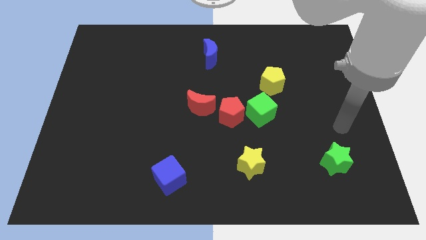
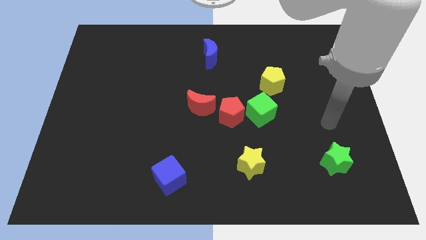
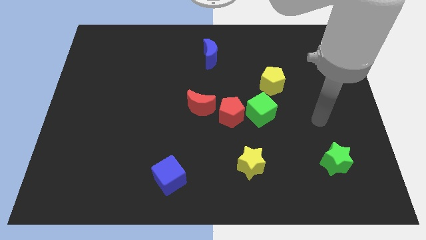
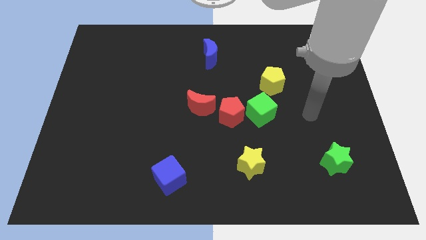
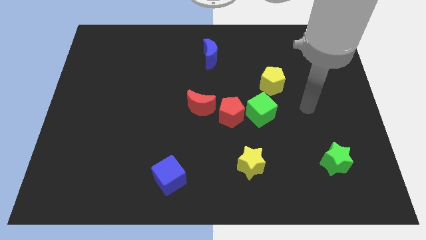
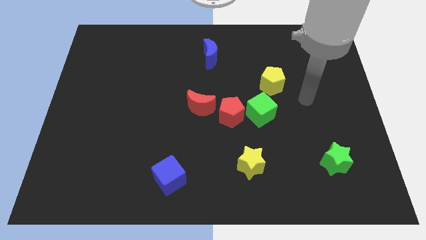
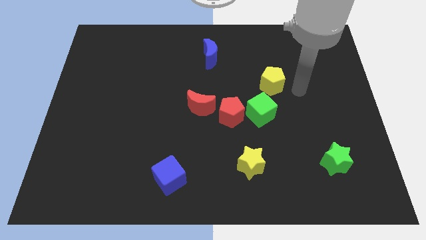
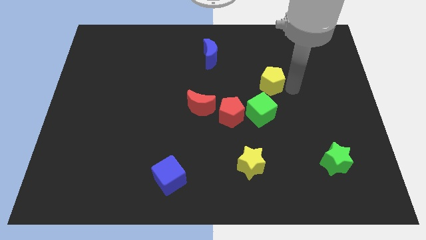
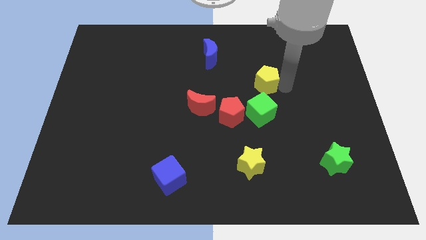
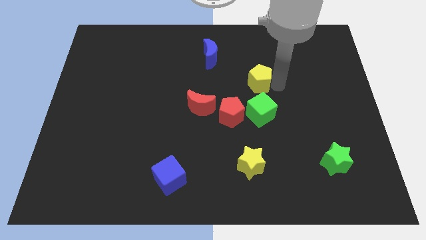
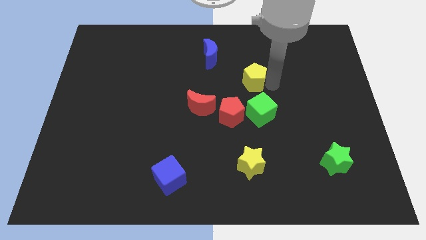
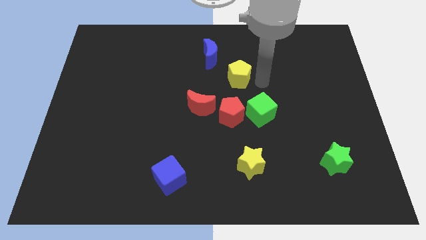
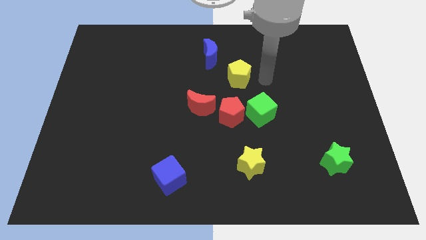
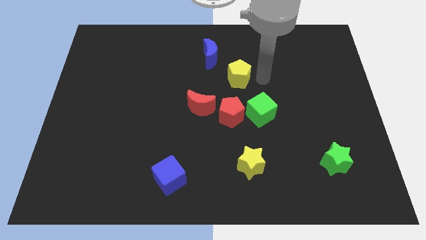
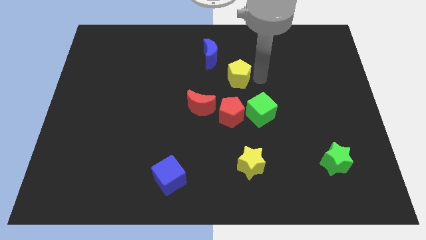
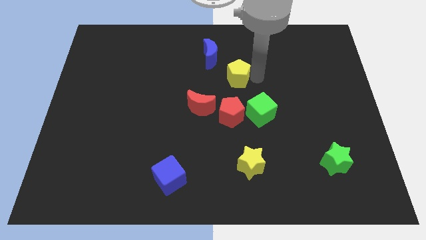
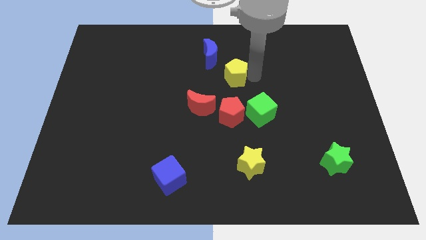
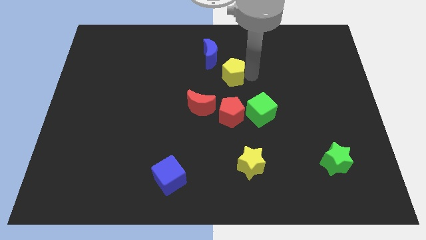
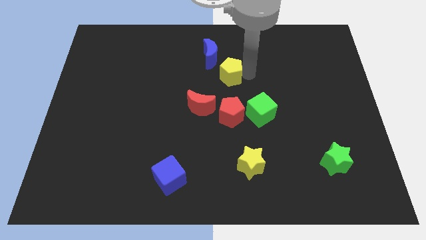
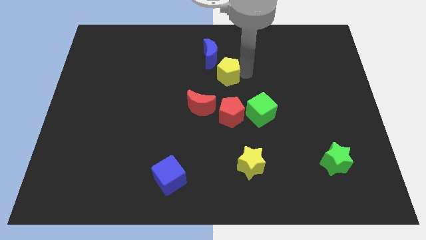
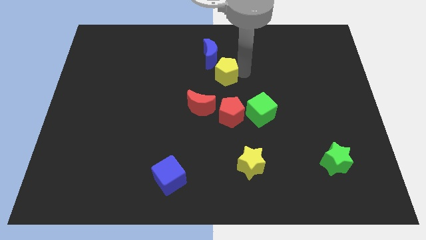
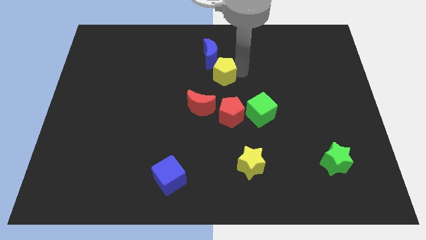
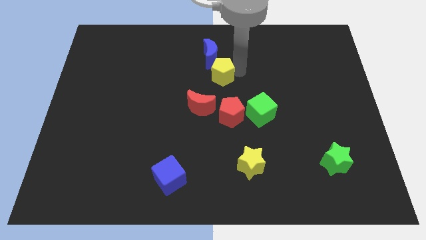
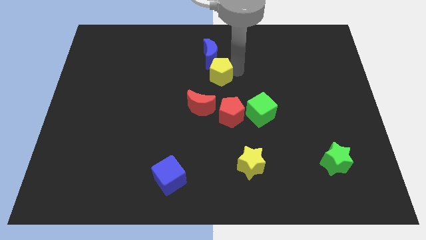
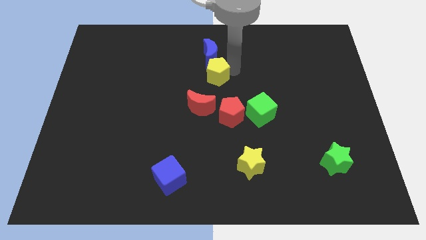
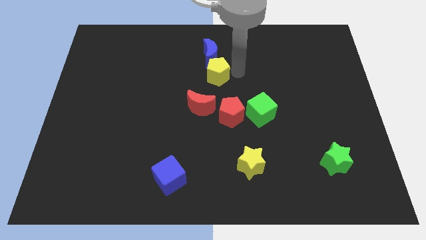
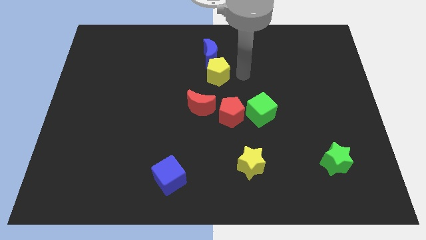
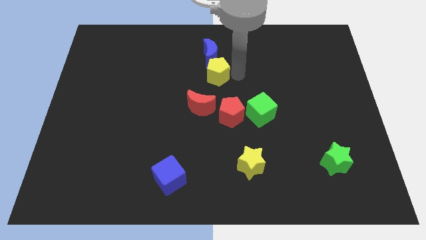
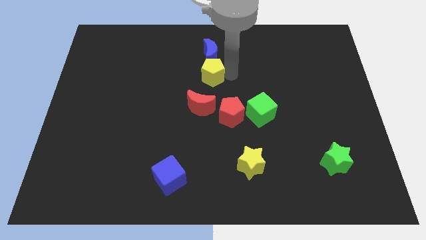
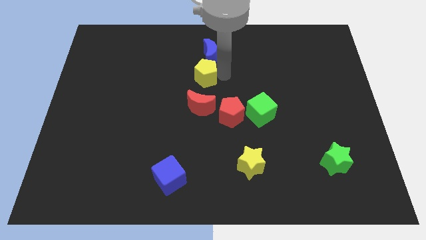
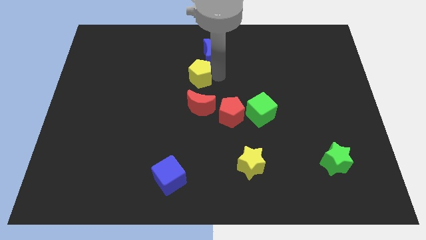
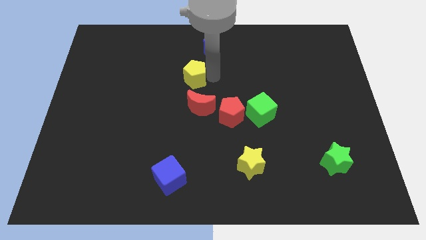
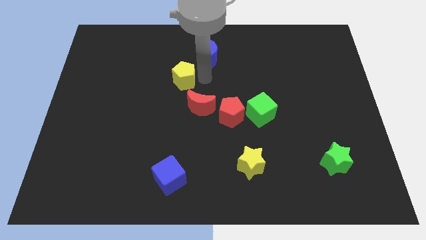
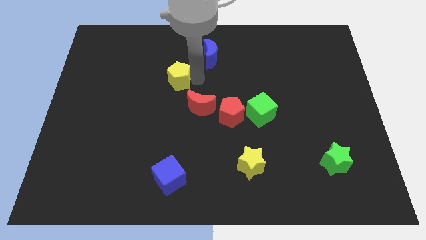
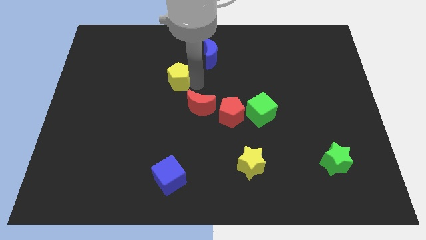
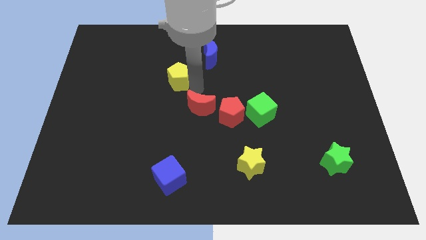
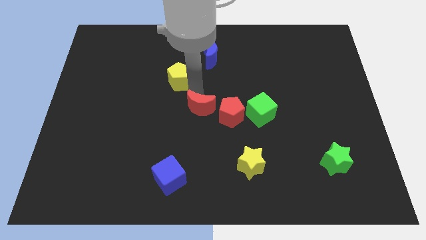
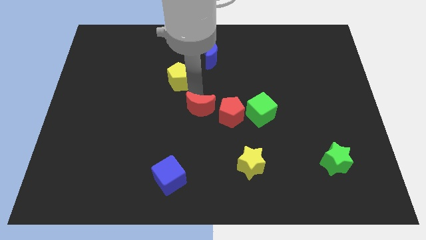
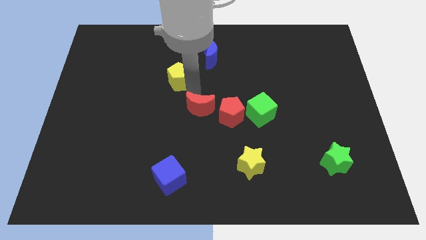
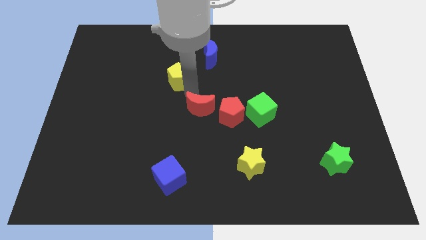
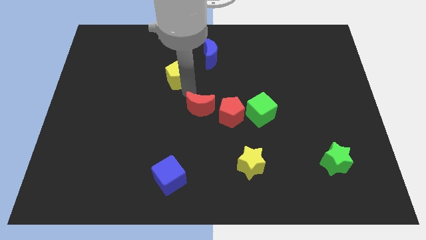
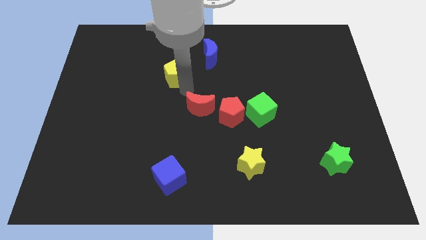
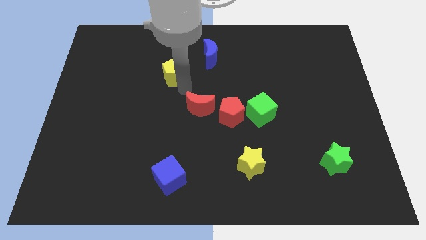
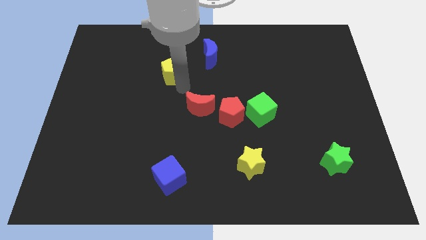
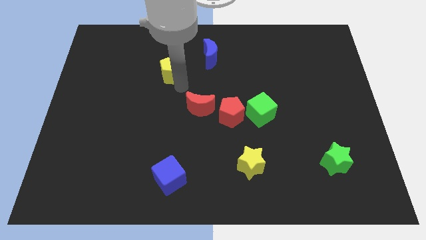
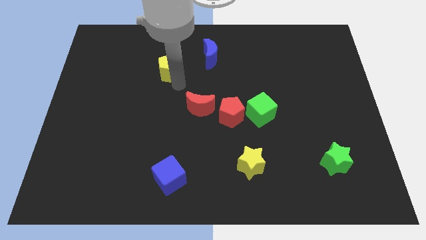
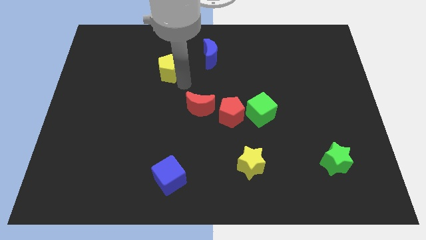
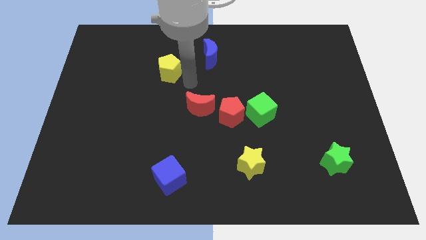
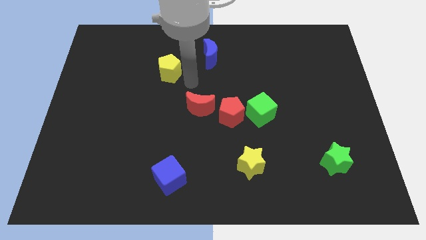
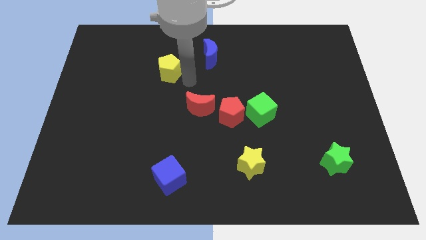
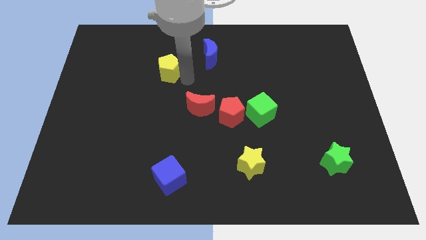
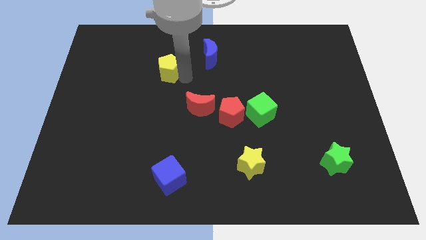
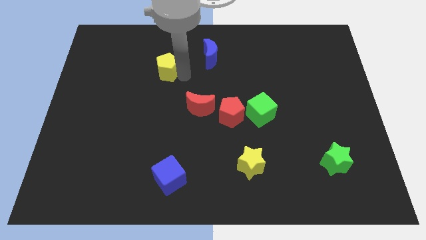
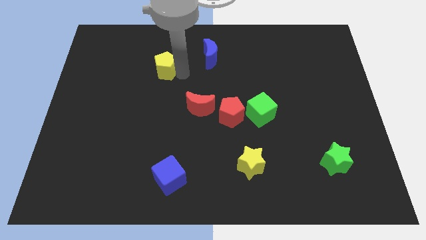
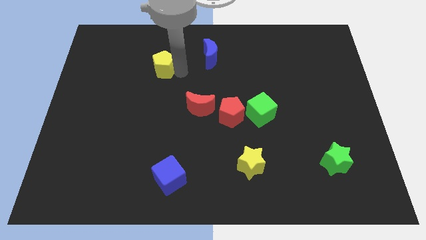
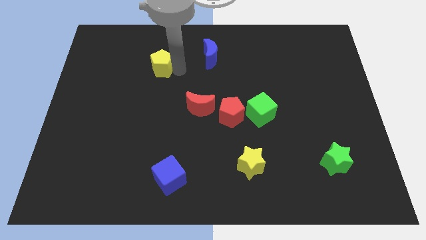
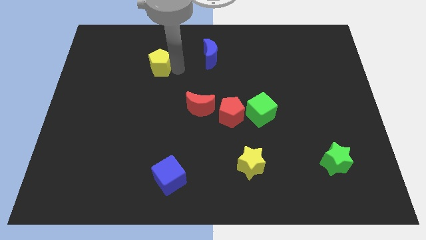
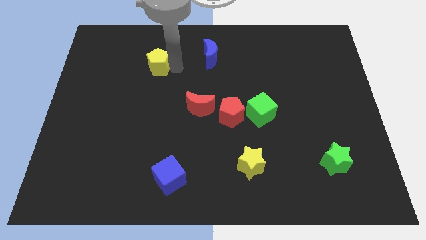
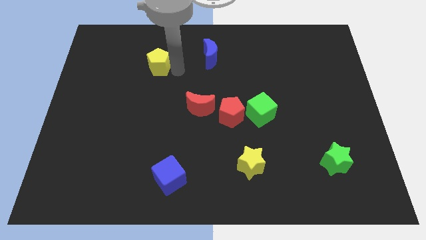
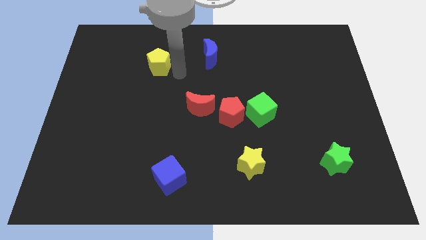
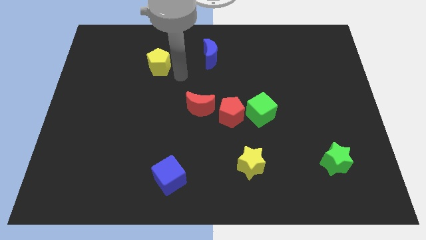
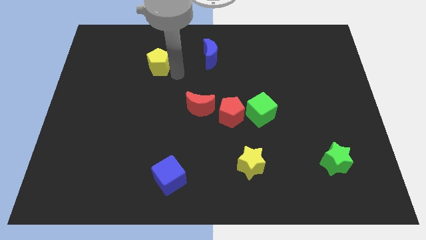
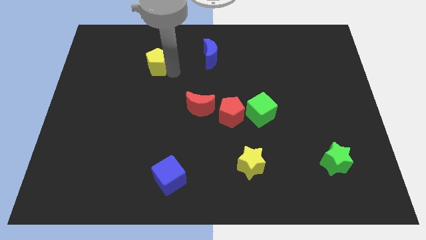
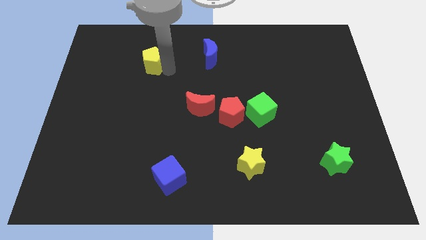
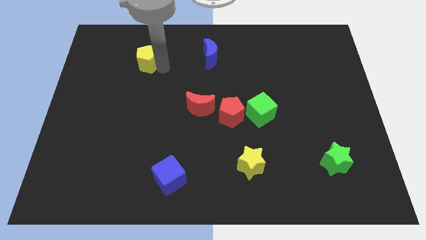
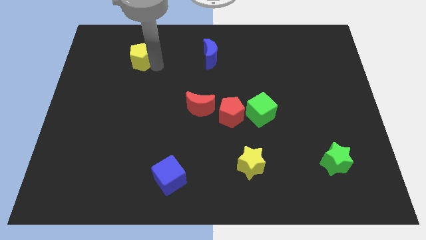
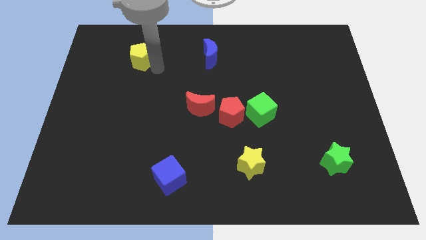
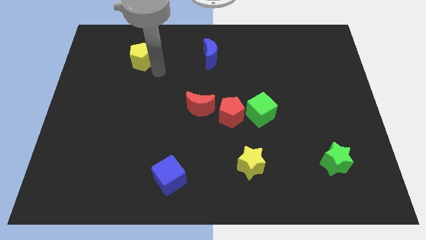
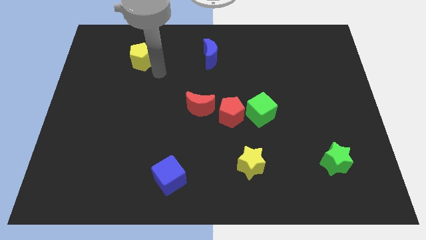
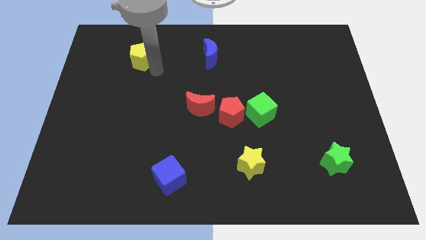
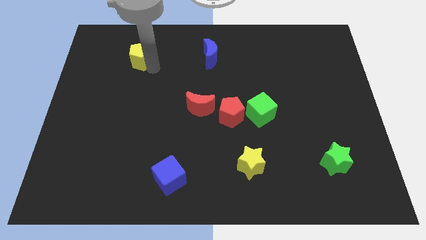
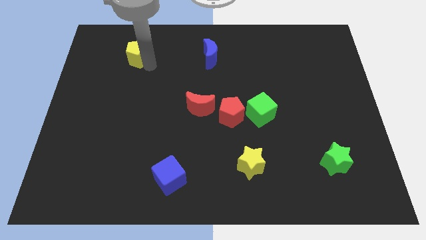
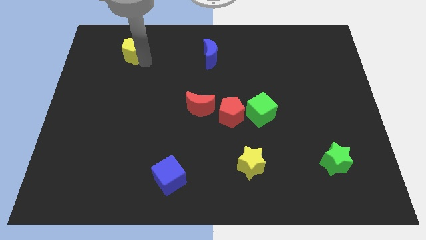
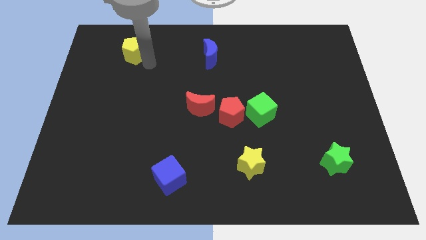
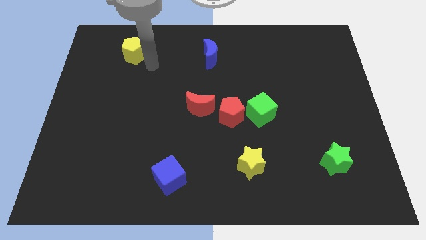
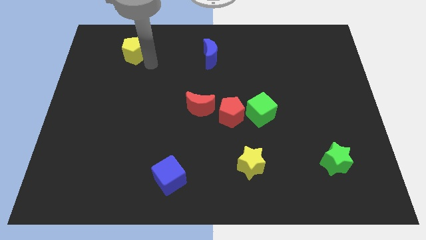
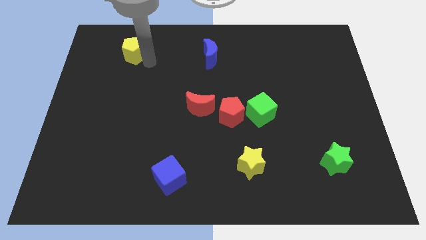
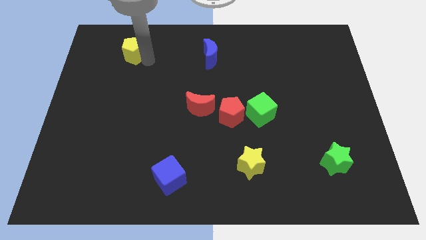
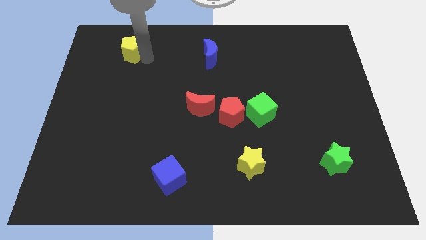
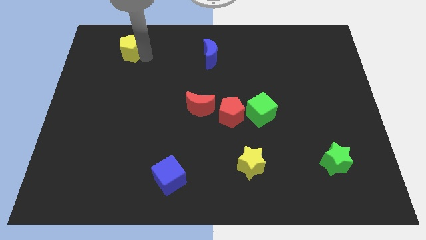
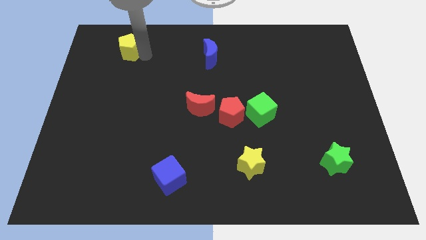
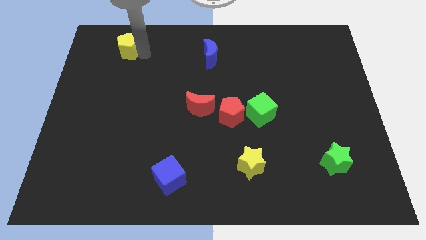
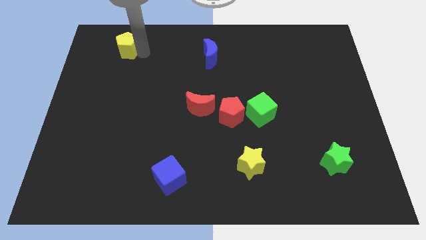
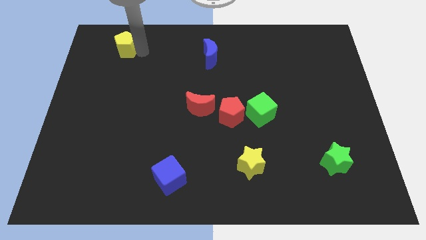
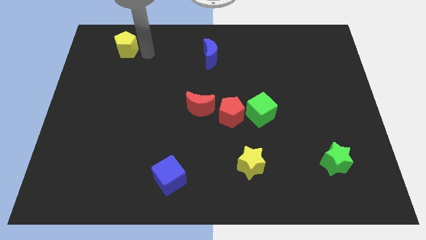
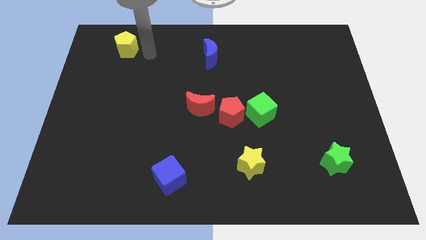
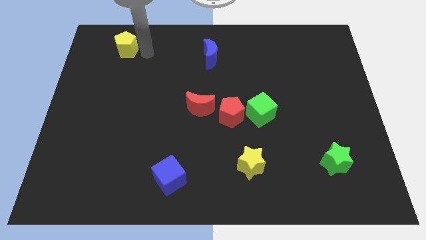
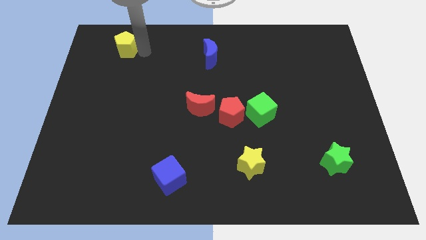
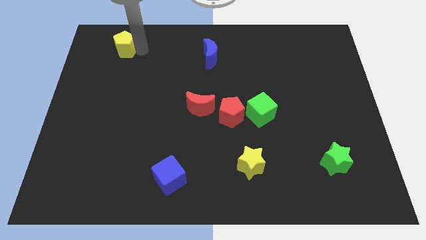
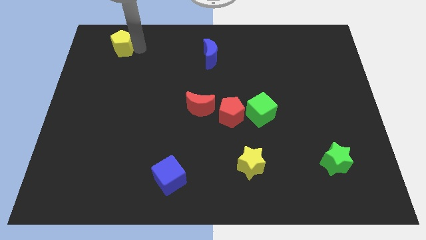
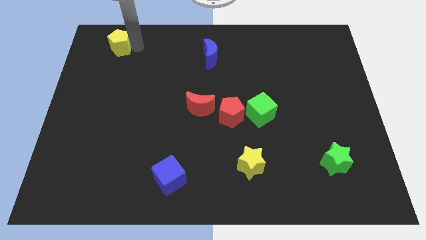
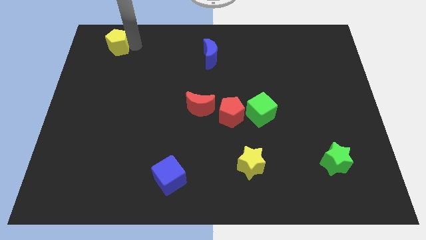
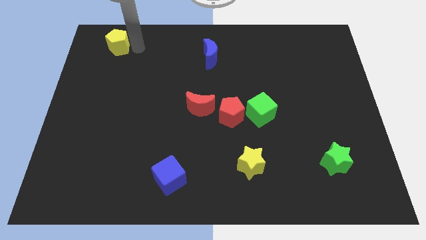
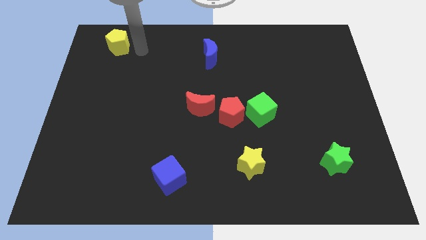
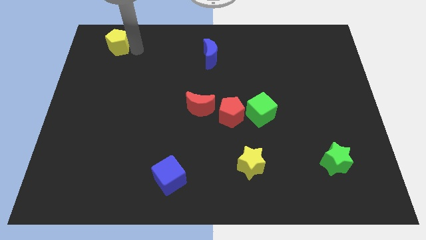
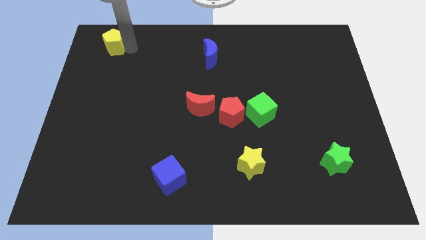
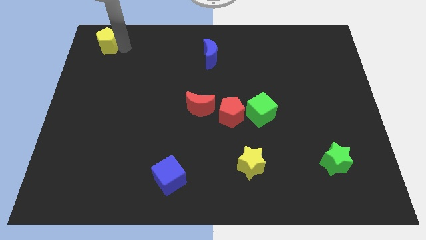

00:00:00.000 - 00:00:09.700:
push the yellow pentagon to the upper left corner
